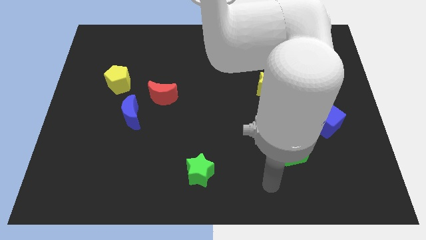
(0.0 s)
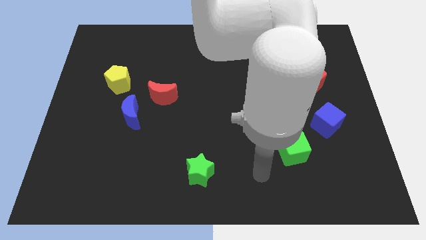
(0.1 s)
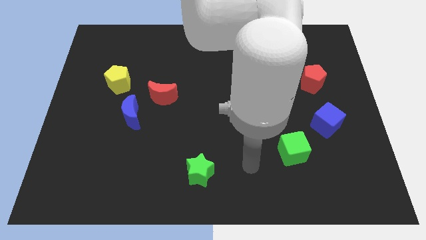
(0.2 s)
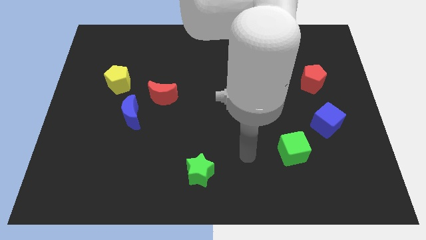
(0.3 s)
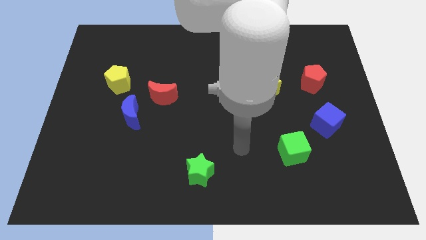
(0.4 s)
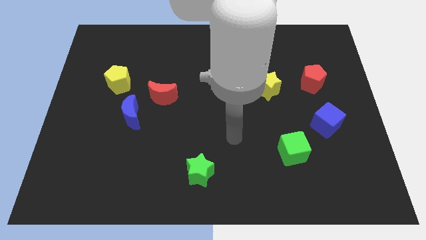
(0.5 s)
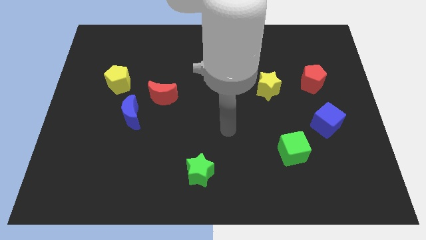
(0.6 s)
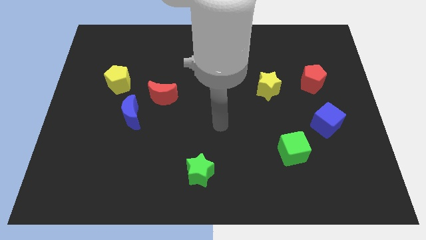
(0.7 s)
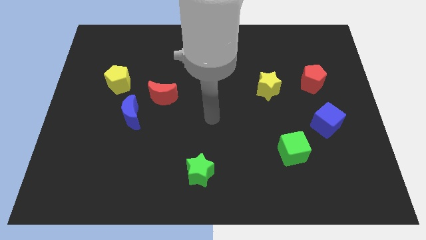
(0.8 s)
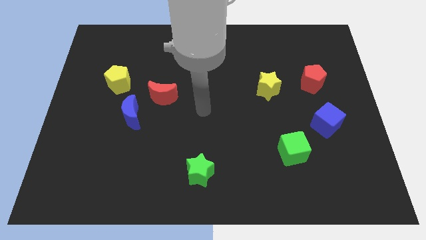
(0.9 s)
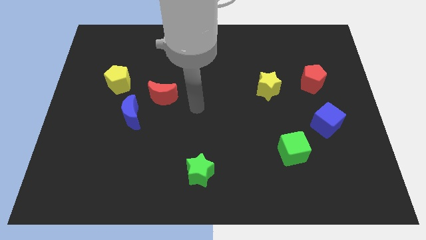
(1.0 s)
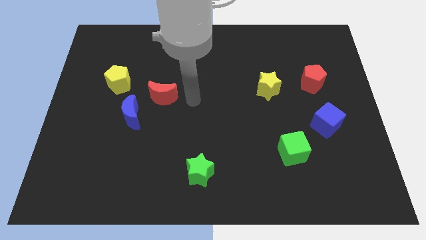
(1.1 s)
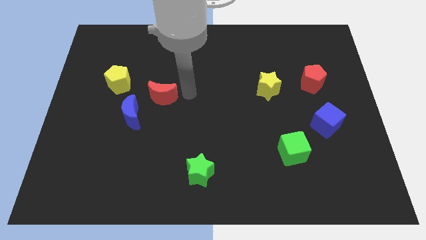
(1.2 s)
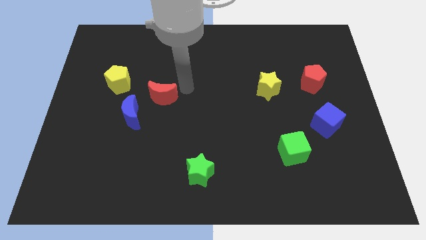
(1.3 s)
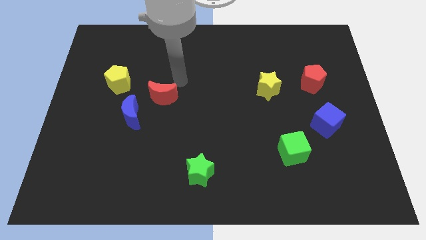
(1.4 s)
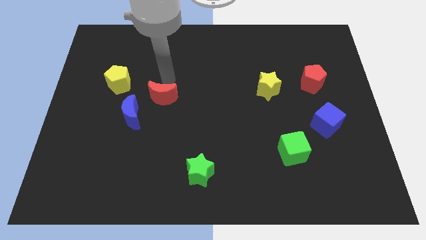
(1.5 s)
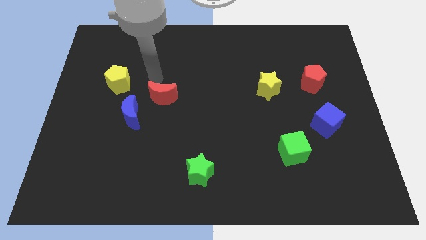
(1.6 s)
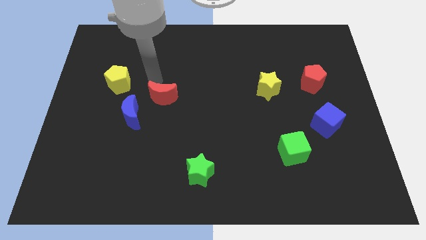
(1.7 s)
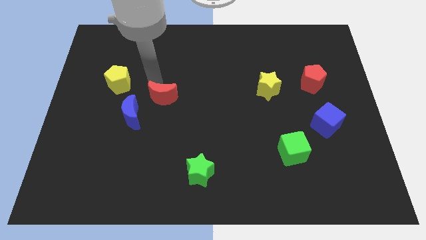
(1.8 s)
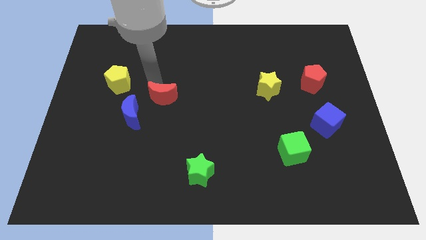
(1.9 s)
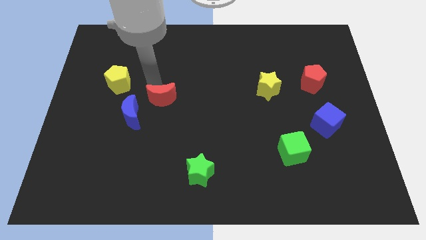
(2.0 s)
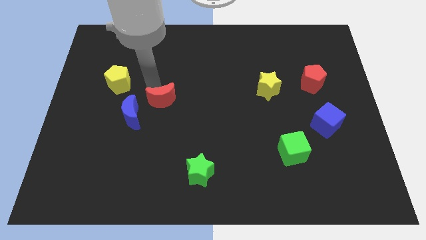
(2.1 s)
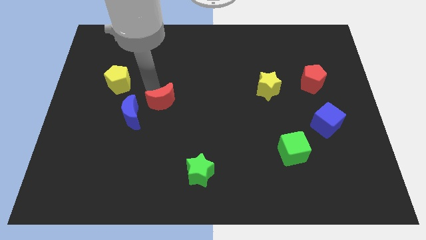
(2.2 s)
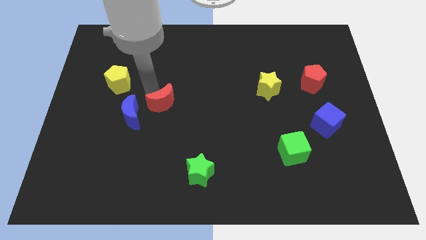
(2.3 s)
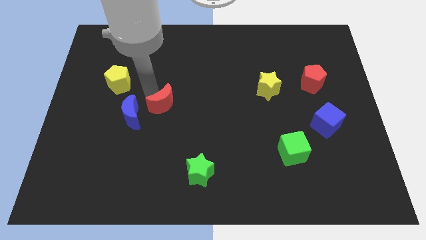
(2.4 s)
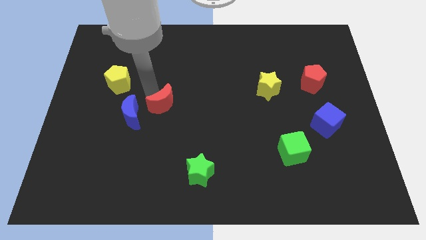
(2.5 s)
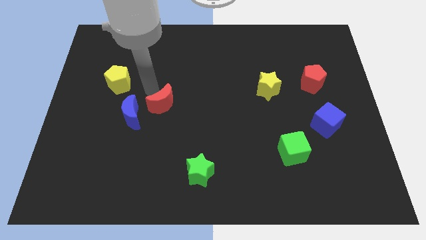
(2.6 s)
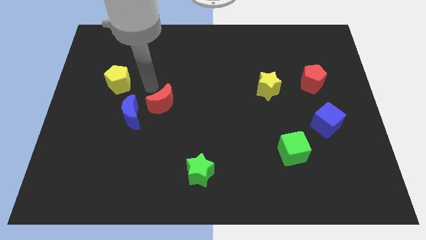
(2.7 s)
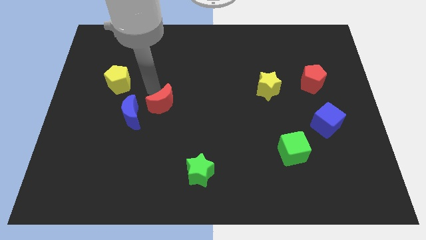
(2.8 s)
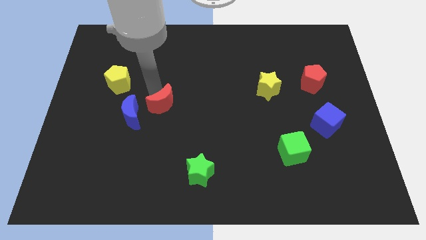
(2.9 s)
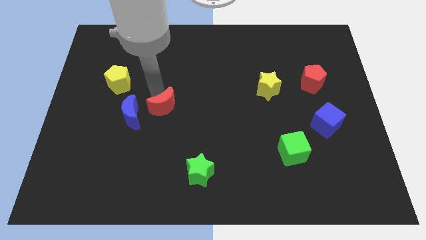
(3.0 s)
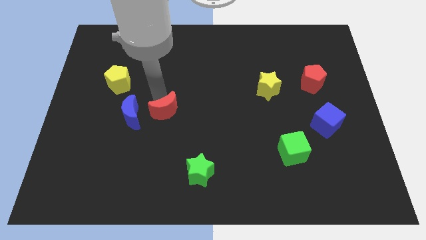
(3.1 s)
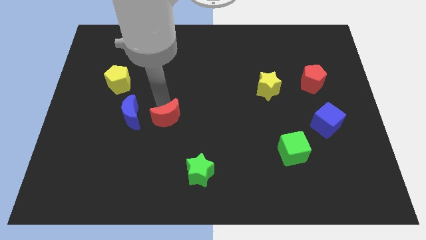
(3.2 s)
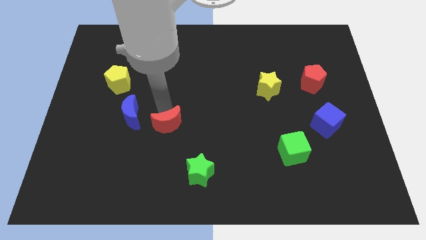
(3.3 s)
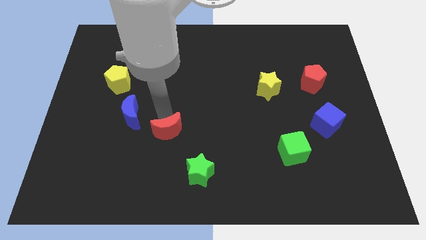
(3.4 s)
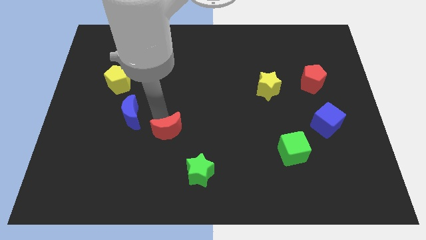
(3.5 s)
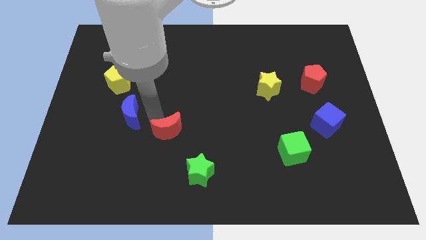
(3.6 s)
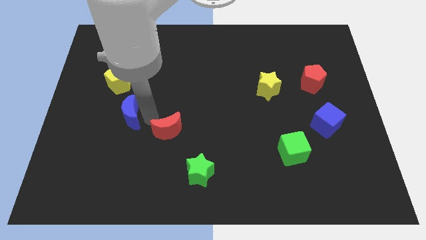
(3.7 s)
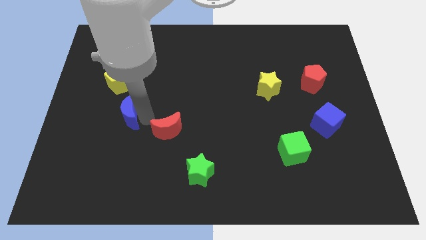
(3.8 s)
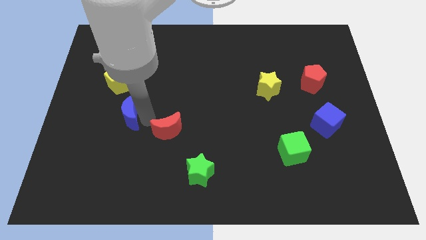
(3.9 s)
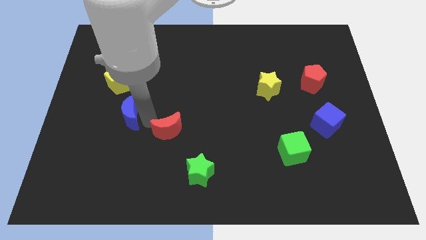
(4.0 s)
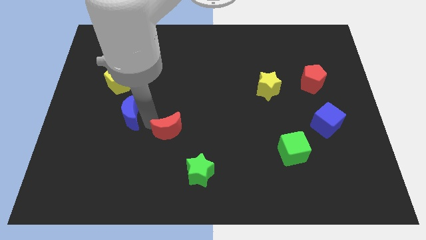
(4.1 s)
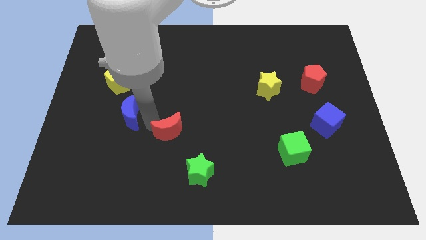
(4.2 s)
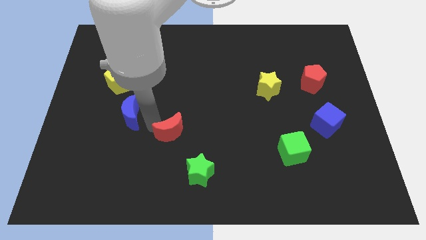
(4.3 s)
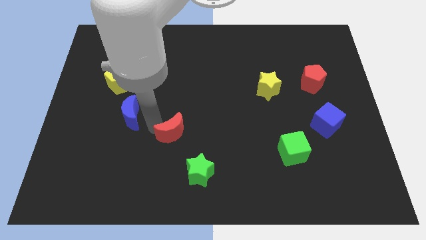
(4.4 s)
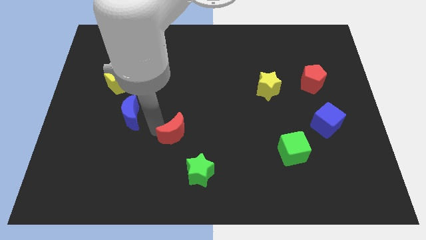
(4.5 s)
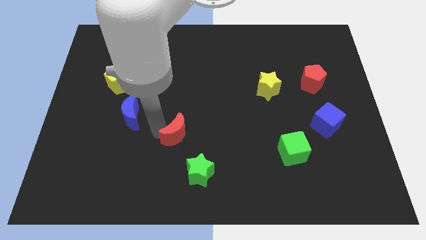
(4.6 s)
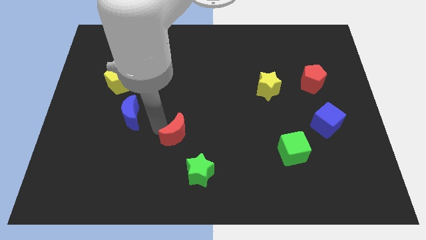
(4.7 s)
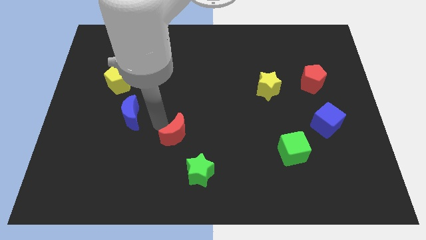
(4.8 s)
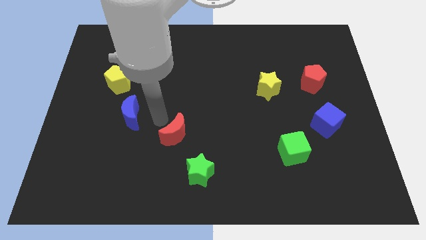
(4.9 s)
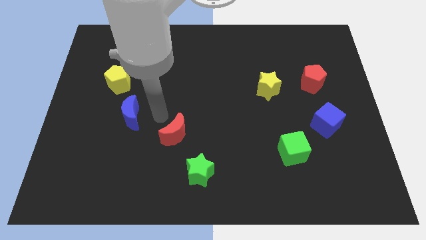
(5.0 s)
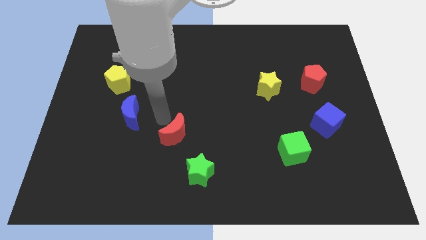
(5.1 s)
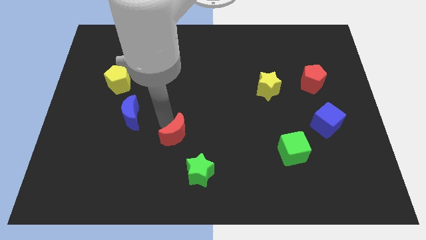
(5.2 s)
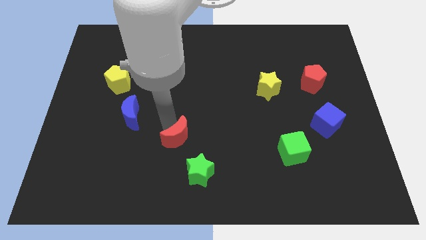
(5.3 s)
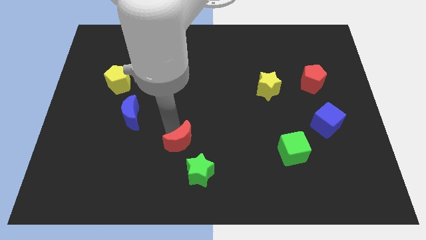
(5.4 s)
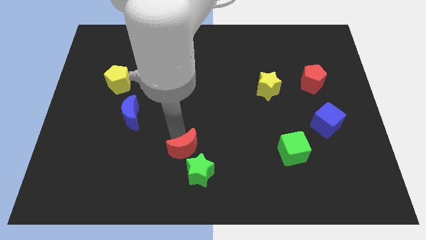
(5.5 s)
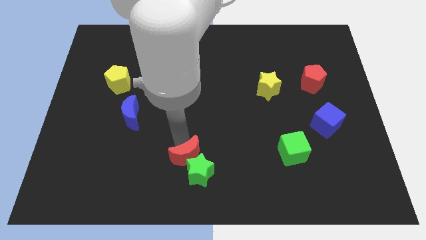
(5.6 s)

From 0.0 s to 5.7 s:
put the red moon to the green star

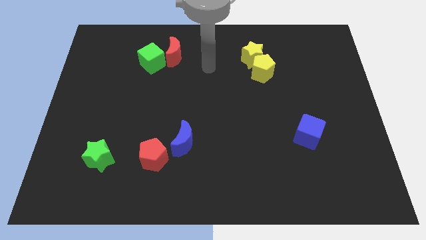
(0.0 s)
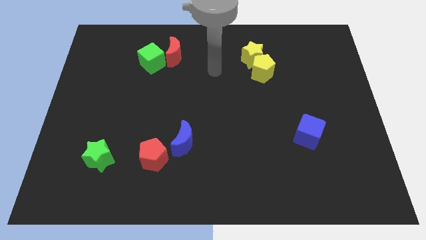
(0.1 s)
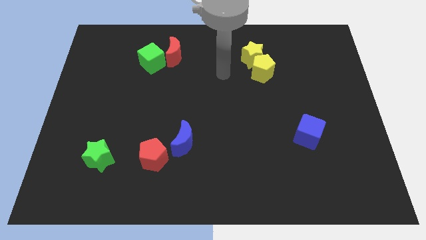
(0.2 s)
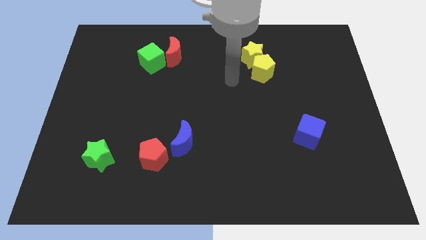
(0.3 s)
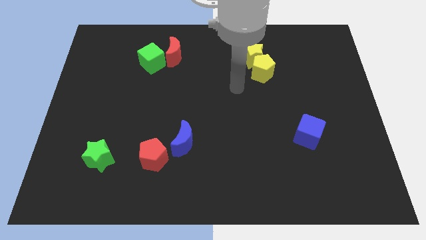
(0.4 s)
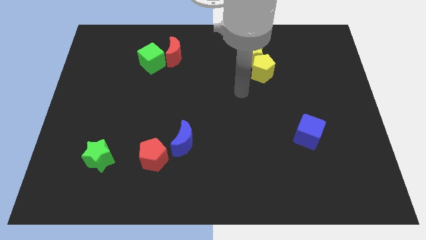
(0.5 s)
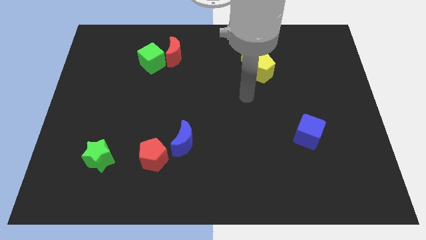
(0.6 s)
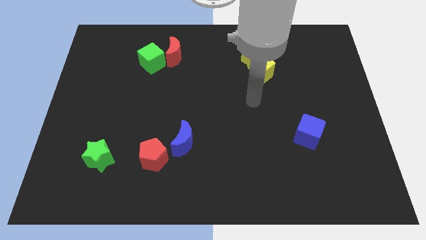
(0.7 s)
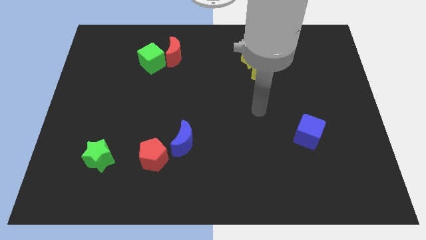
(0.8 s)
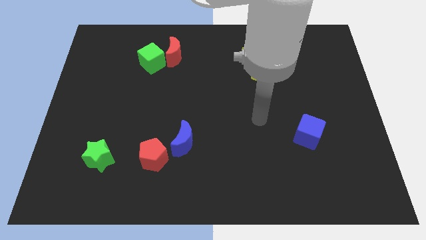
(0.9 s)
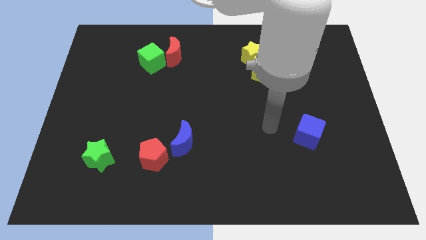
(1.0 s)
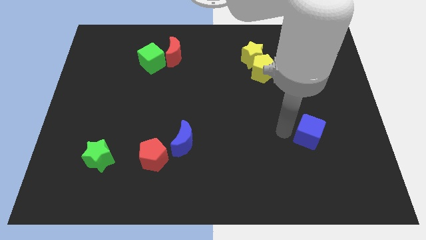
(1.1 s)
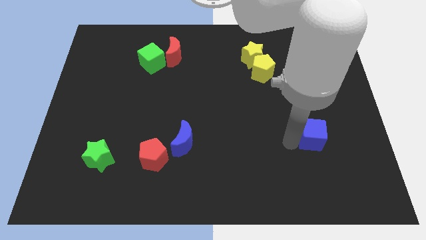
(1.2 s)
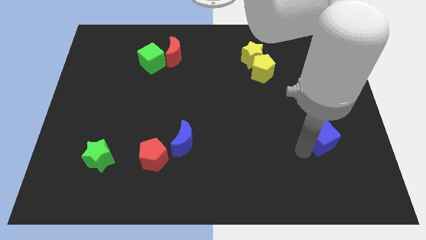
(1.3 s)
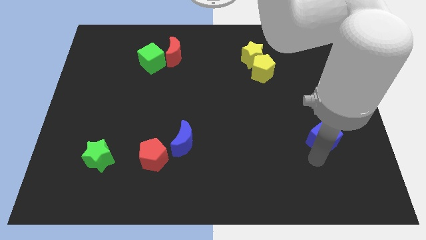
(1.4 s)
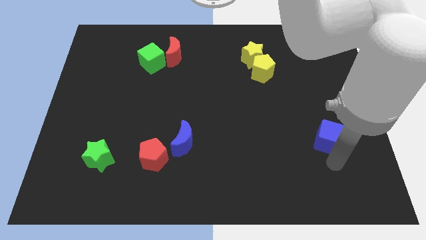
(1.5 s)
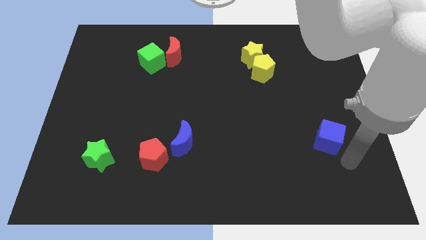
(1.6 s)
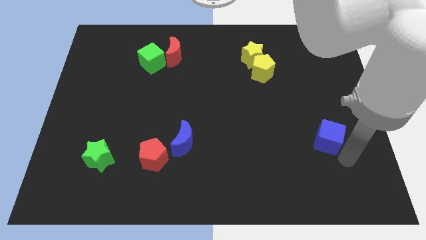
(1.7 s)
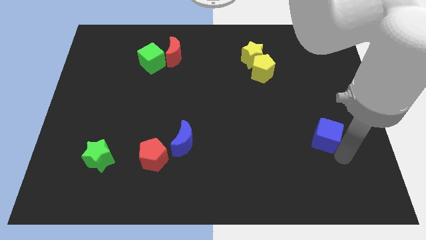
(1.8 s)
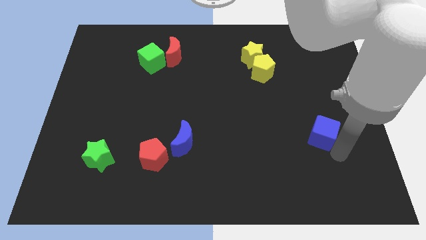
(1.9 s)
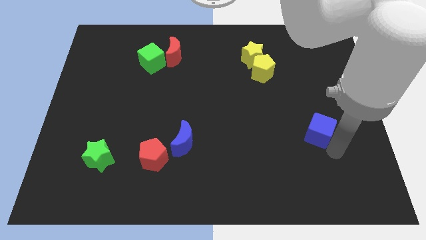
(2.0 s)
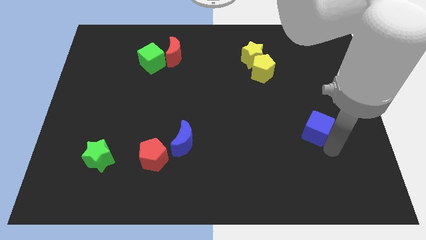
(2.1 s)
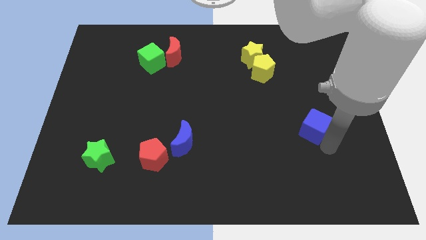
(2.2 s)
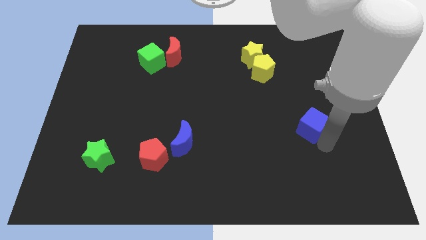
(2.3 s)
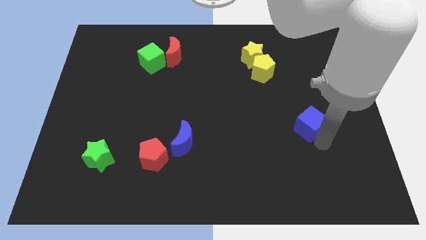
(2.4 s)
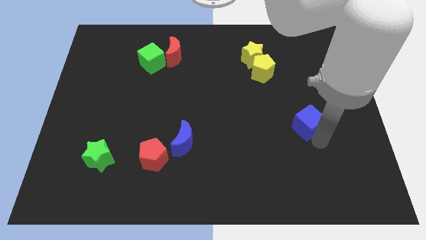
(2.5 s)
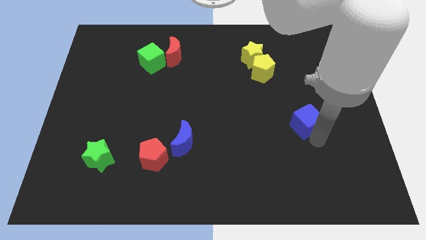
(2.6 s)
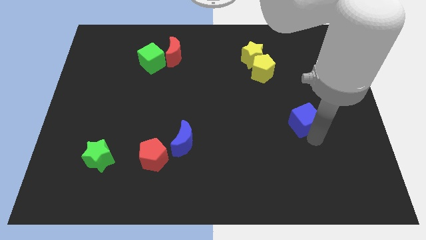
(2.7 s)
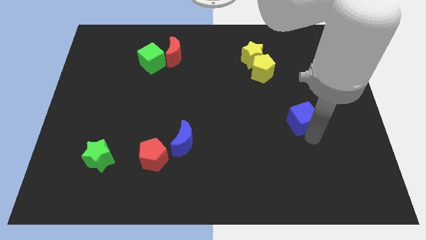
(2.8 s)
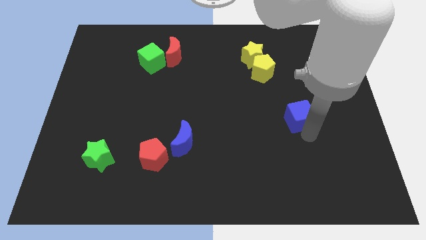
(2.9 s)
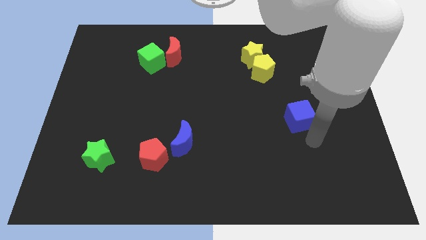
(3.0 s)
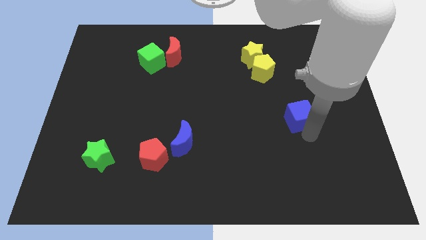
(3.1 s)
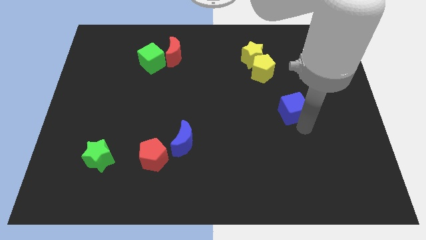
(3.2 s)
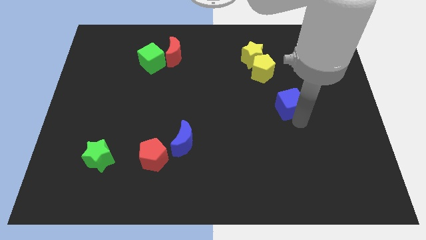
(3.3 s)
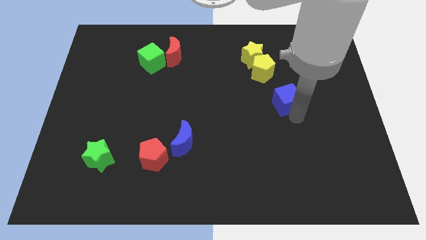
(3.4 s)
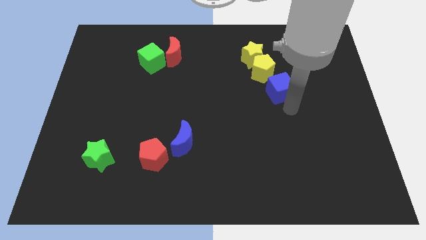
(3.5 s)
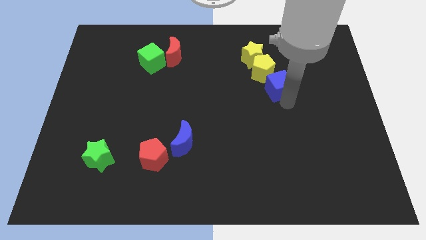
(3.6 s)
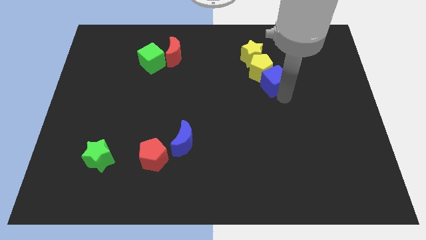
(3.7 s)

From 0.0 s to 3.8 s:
put the blue cube to the yellow pentagon
